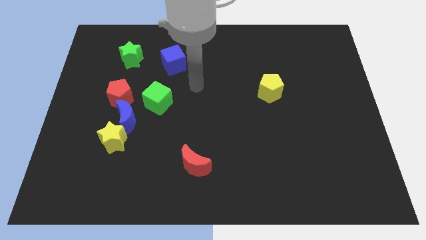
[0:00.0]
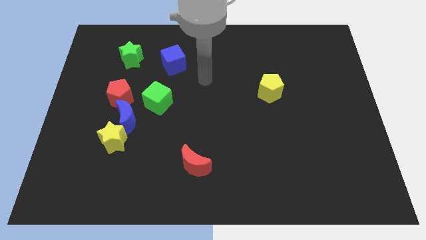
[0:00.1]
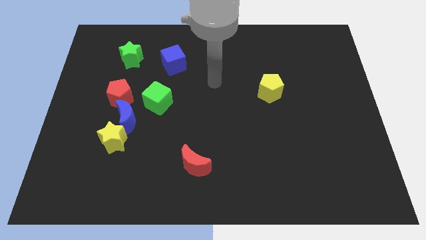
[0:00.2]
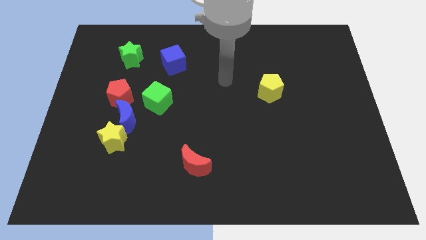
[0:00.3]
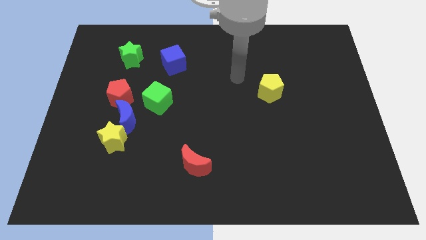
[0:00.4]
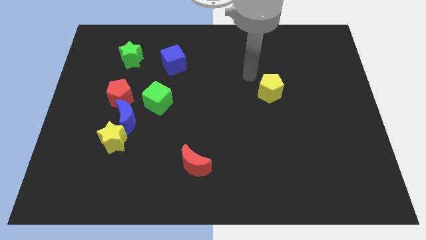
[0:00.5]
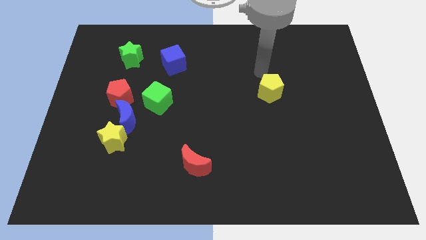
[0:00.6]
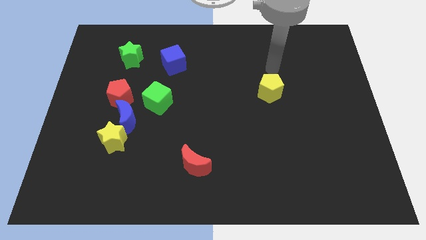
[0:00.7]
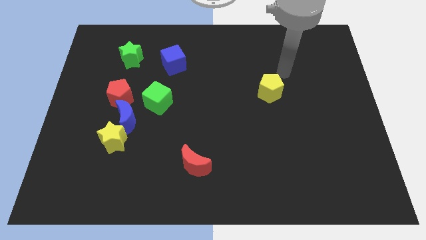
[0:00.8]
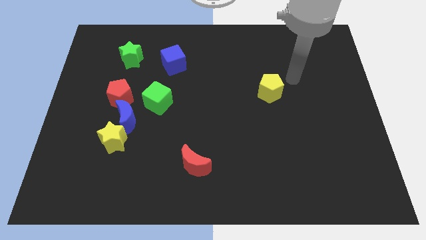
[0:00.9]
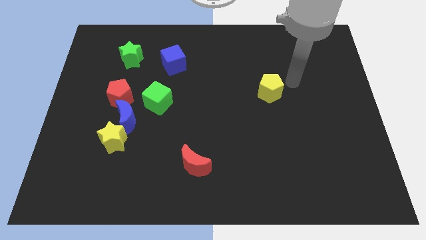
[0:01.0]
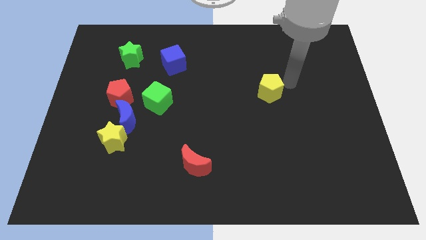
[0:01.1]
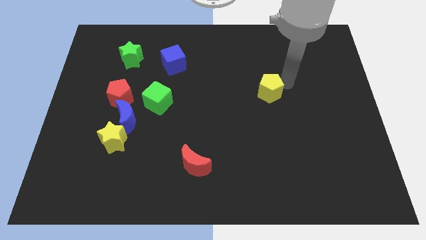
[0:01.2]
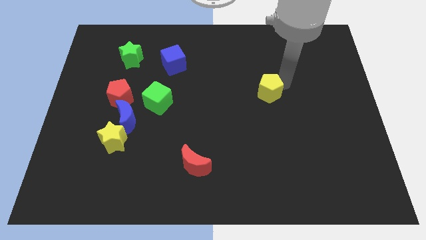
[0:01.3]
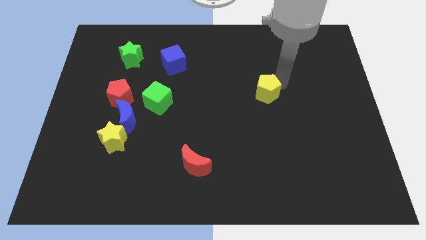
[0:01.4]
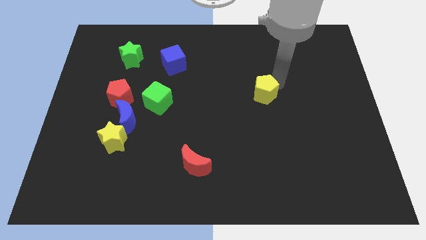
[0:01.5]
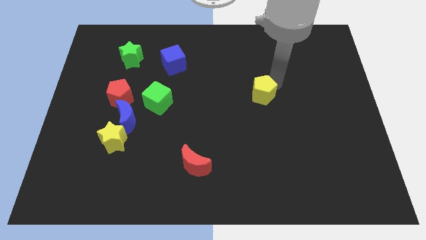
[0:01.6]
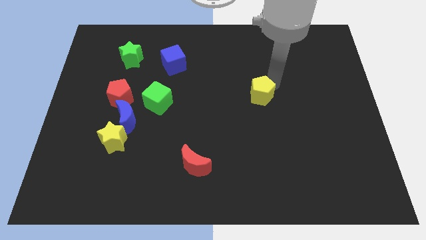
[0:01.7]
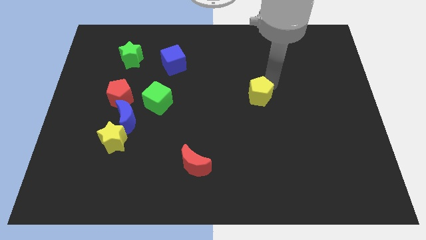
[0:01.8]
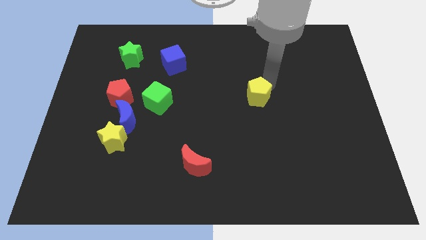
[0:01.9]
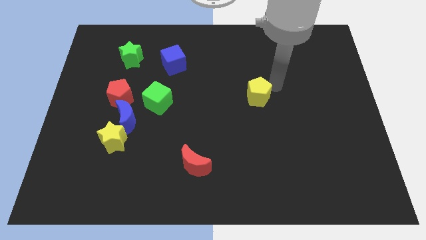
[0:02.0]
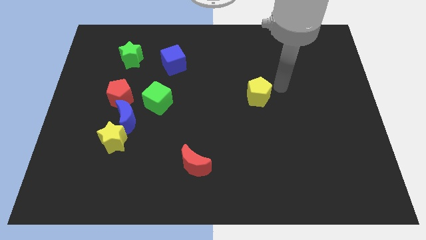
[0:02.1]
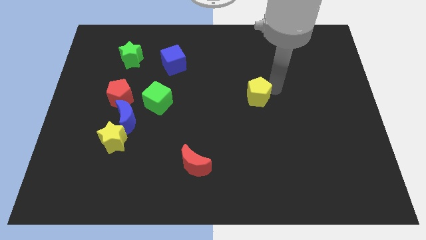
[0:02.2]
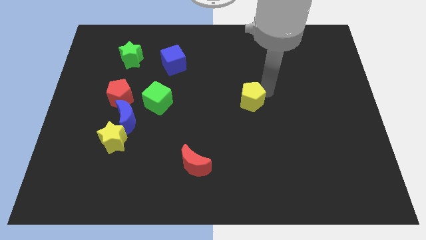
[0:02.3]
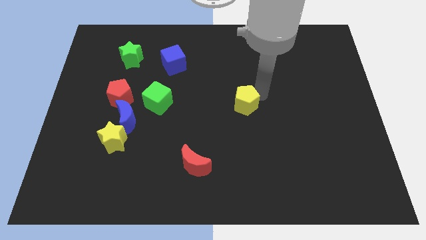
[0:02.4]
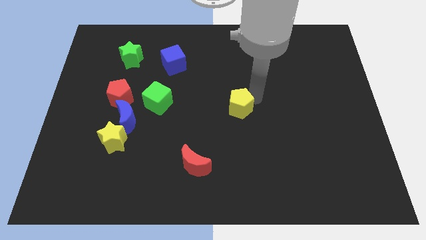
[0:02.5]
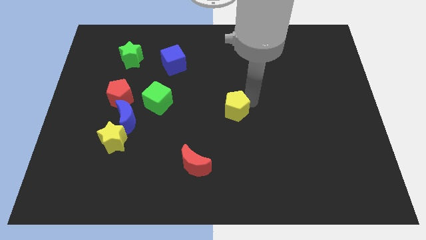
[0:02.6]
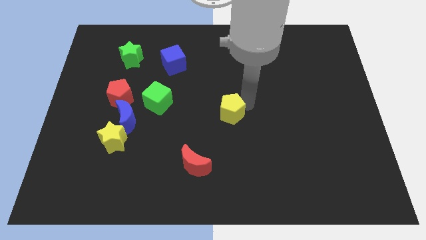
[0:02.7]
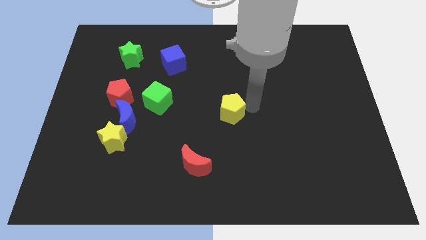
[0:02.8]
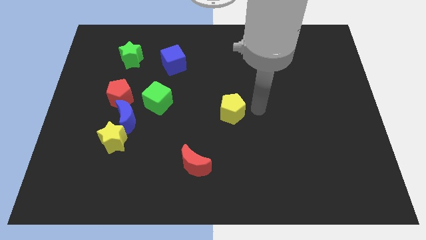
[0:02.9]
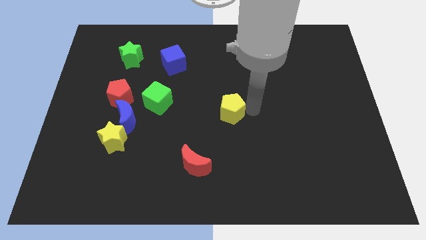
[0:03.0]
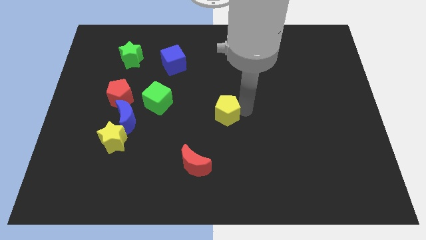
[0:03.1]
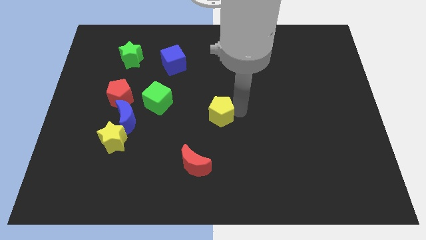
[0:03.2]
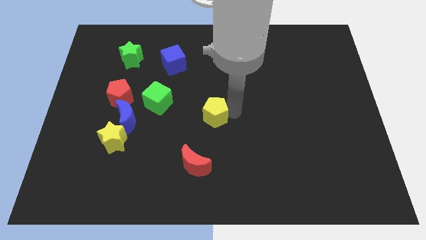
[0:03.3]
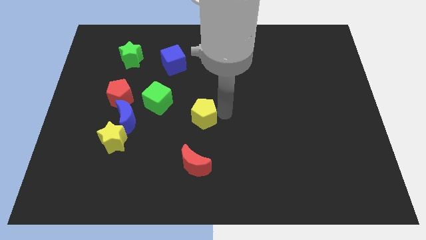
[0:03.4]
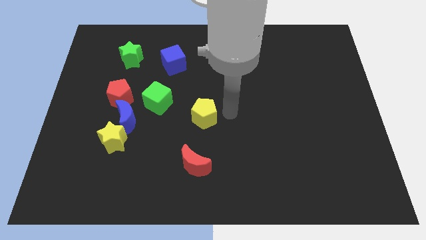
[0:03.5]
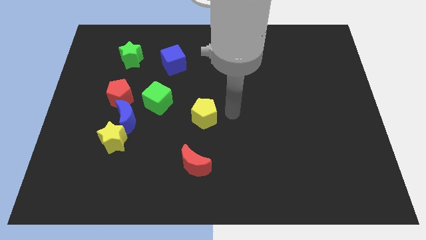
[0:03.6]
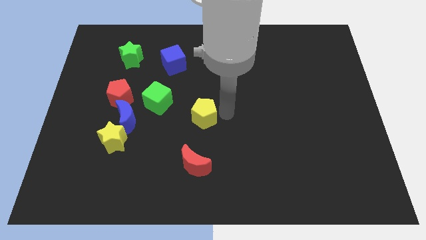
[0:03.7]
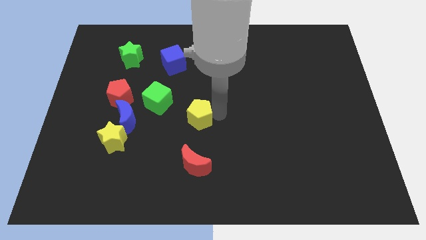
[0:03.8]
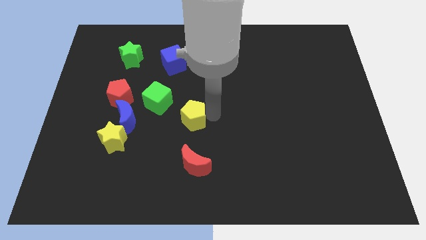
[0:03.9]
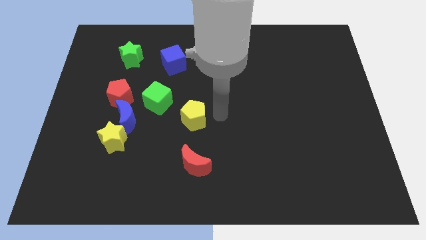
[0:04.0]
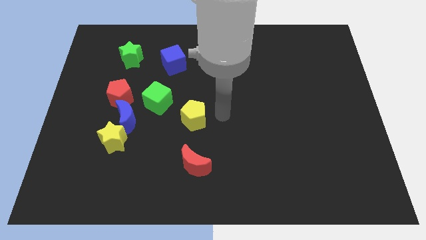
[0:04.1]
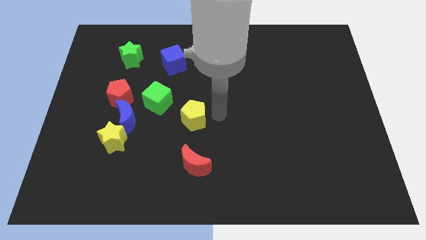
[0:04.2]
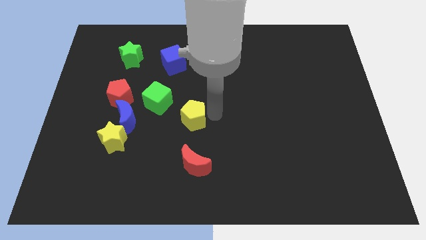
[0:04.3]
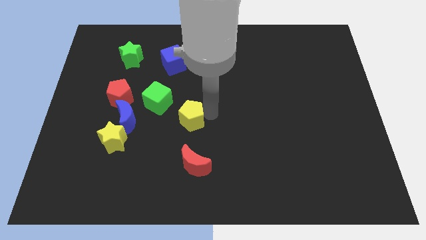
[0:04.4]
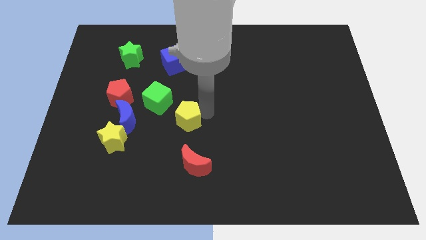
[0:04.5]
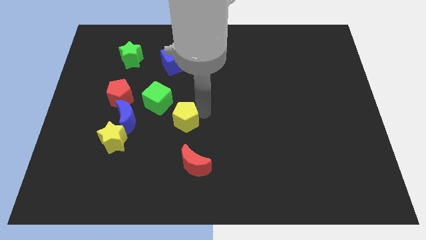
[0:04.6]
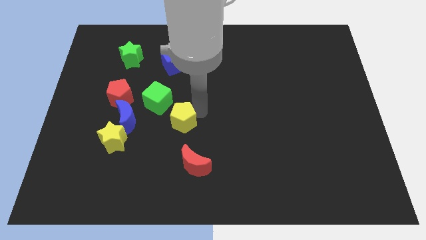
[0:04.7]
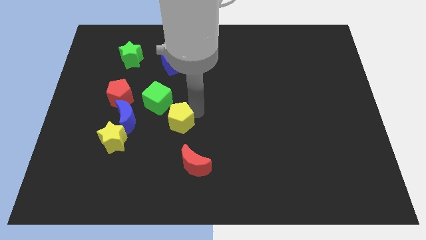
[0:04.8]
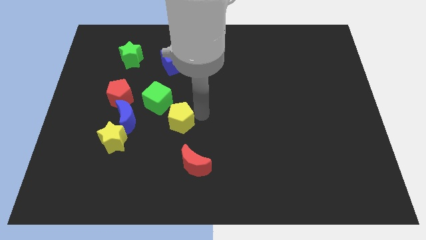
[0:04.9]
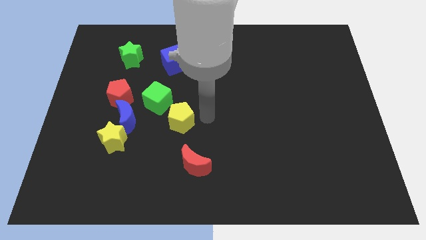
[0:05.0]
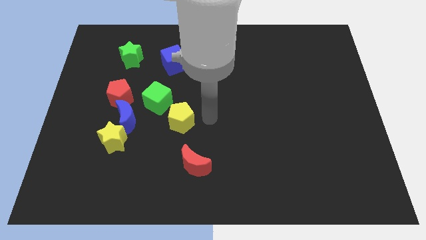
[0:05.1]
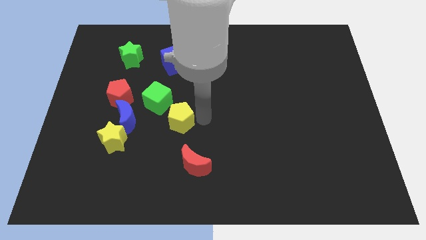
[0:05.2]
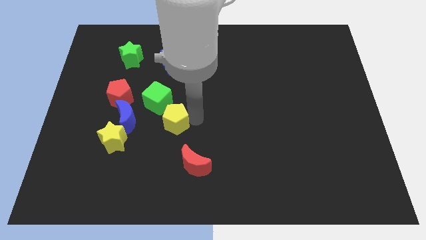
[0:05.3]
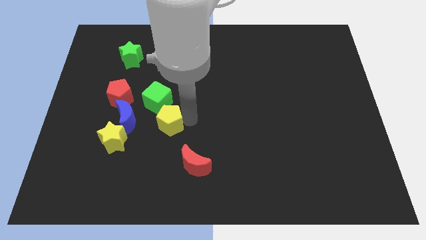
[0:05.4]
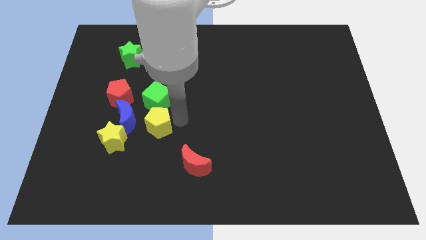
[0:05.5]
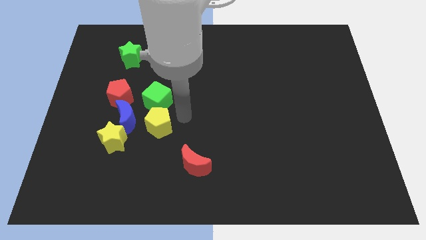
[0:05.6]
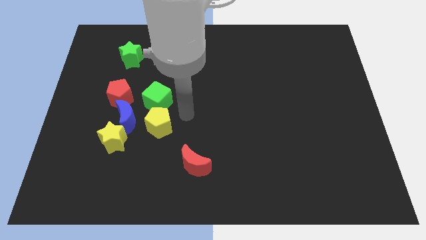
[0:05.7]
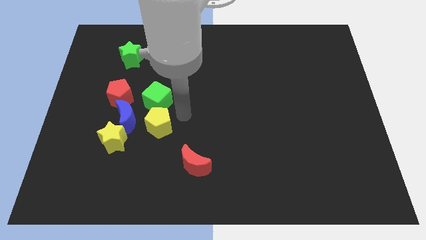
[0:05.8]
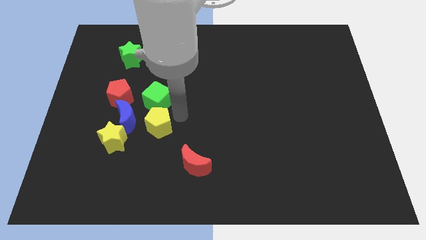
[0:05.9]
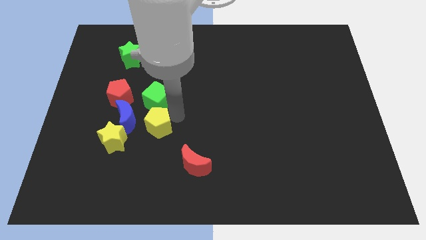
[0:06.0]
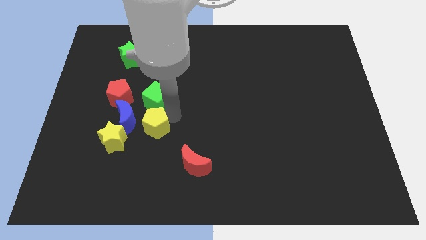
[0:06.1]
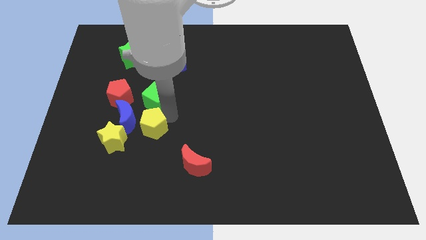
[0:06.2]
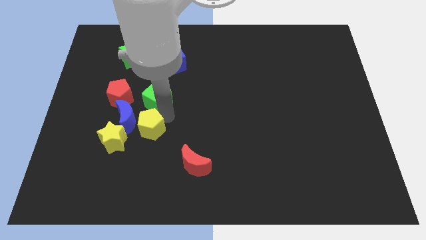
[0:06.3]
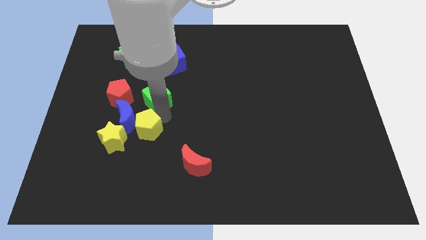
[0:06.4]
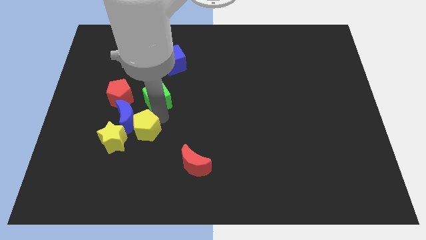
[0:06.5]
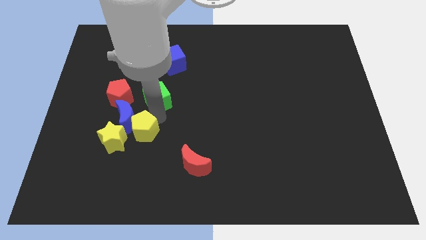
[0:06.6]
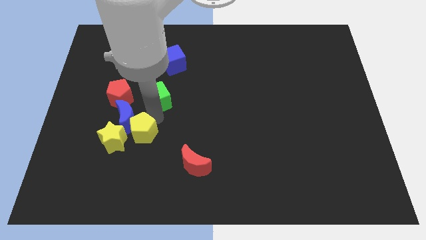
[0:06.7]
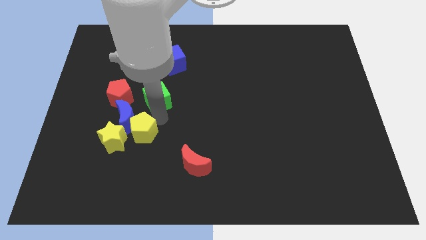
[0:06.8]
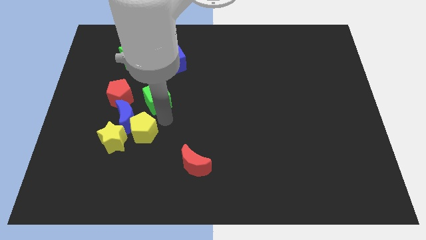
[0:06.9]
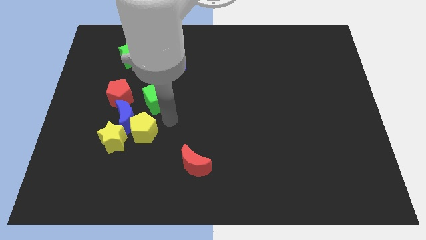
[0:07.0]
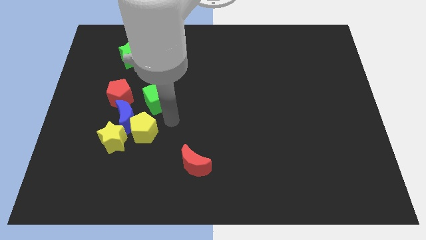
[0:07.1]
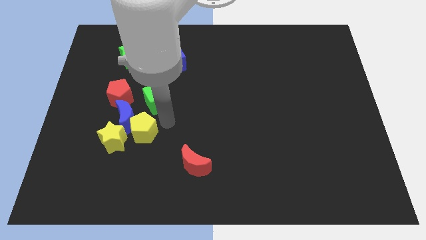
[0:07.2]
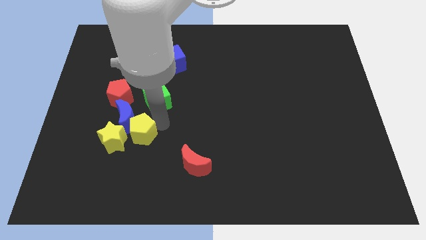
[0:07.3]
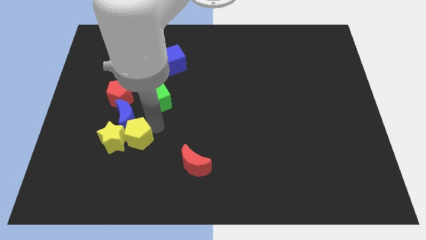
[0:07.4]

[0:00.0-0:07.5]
push the yellow pentagon towards the yellow star
